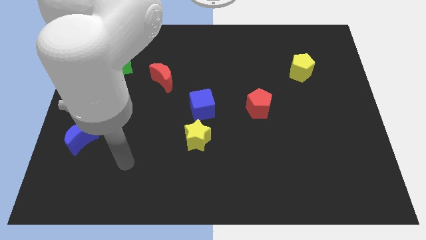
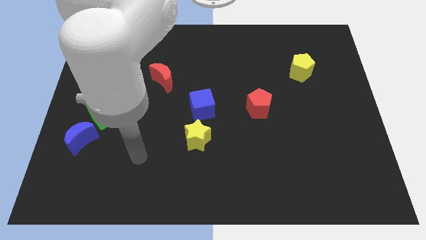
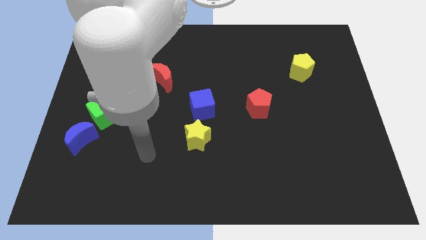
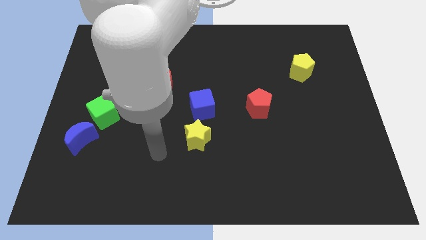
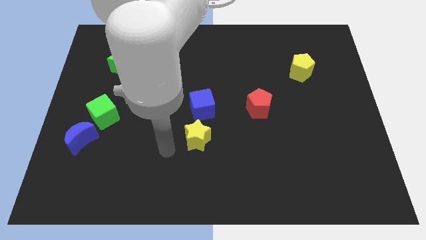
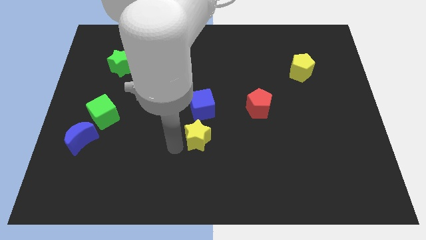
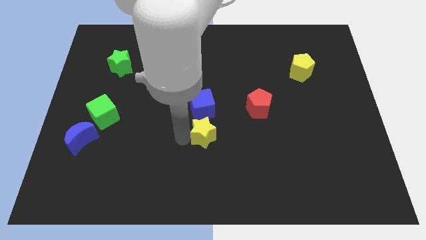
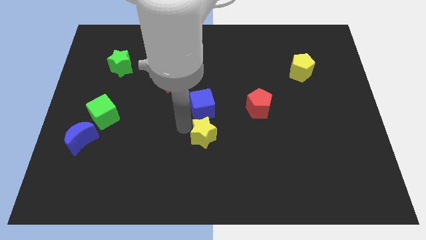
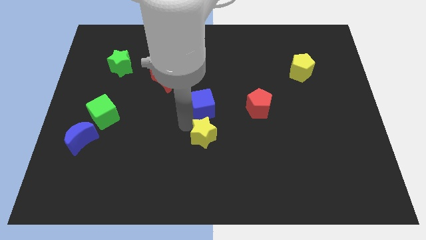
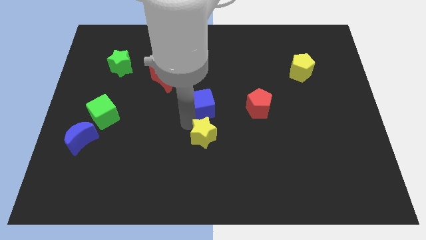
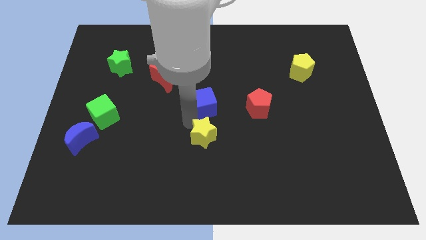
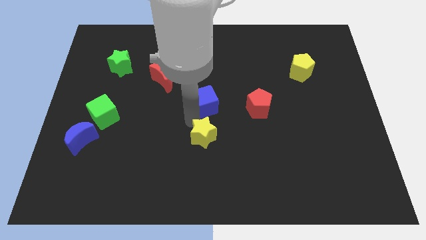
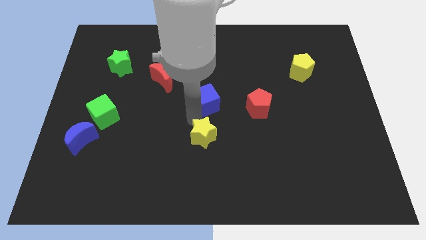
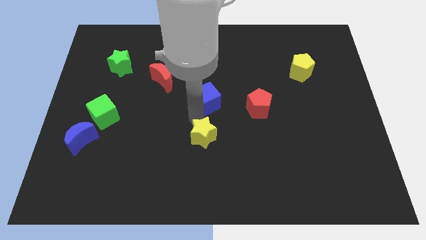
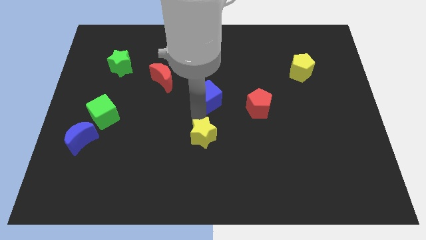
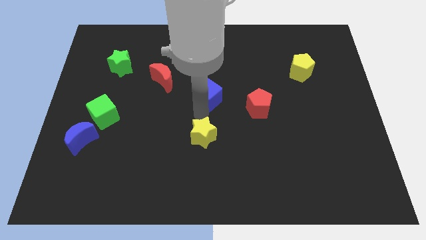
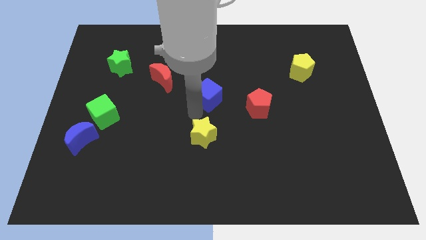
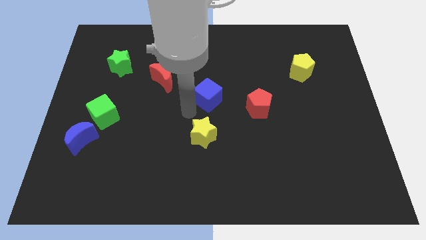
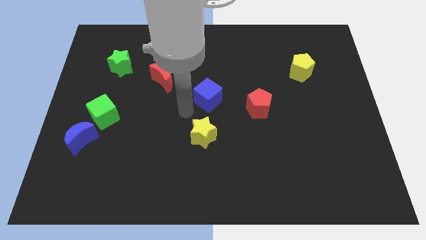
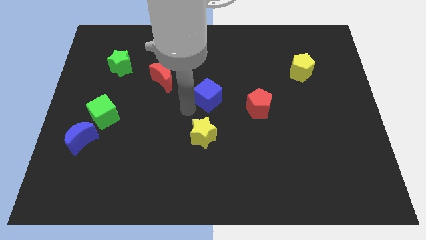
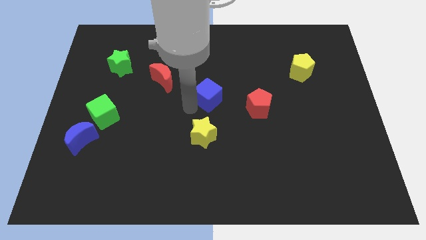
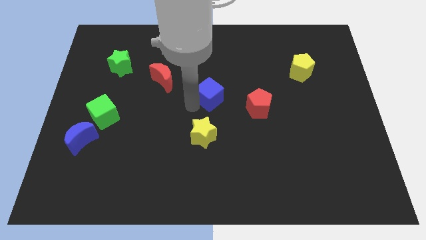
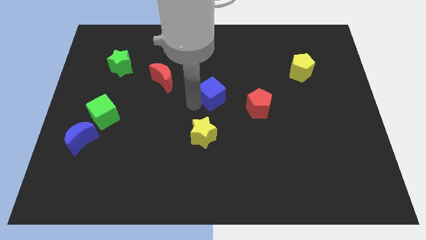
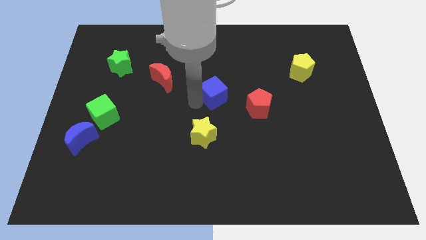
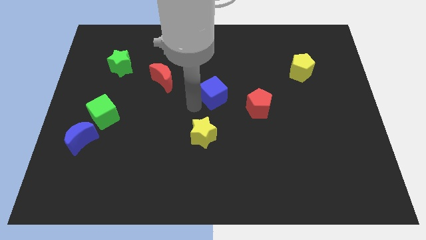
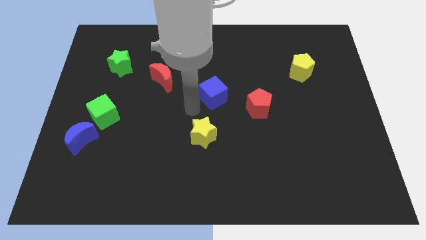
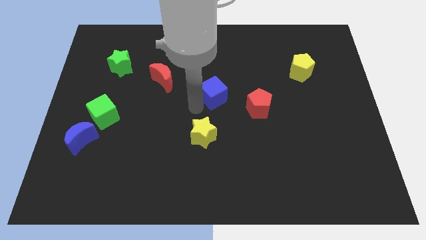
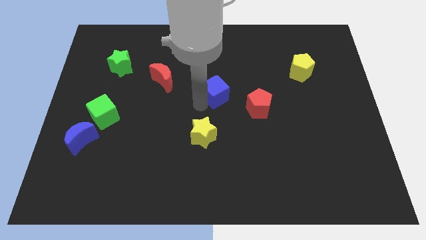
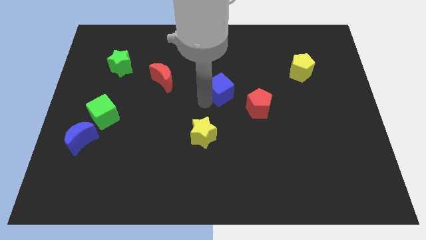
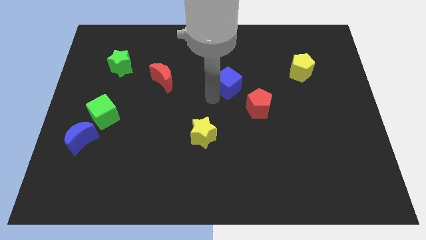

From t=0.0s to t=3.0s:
move the blue cube a little bit upwards and to the right

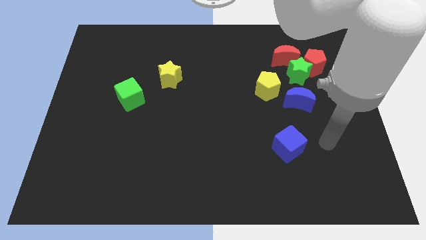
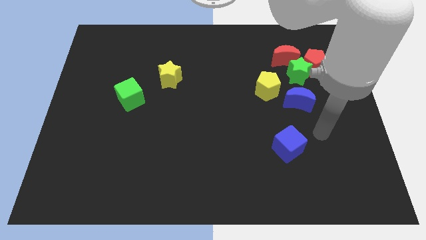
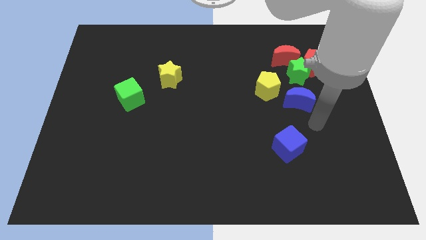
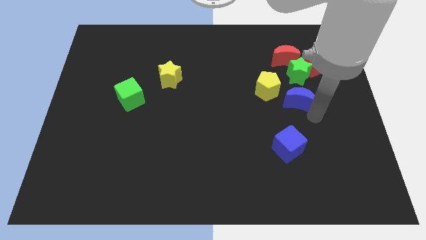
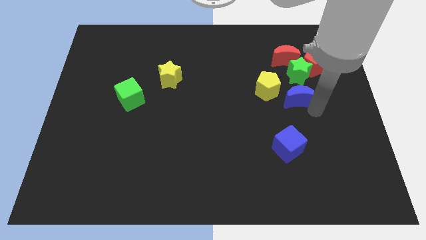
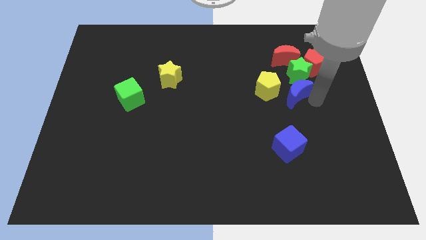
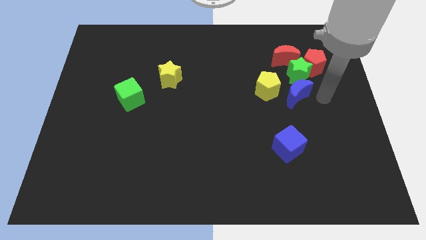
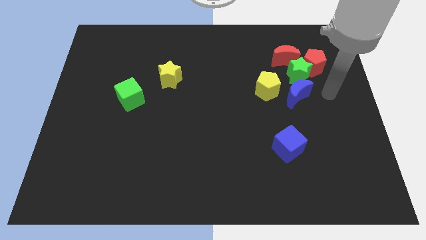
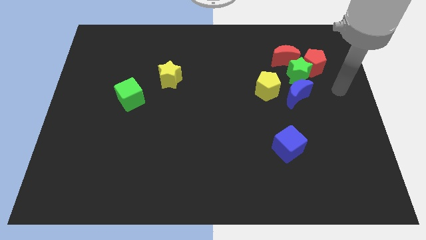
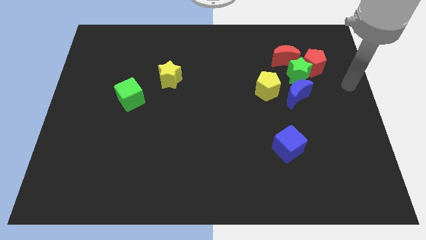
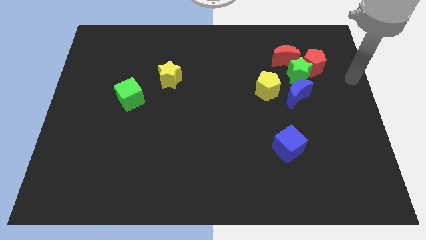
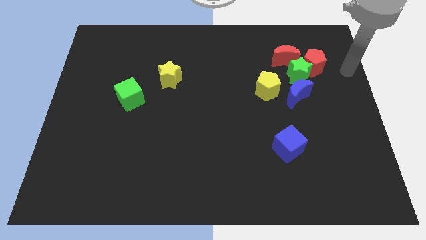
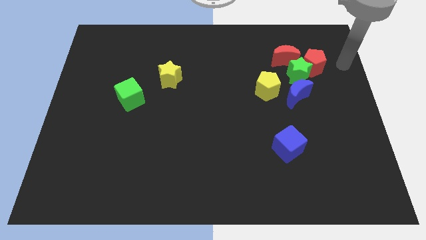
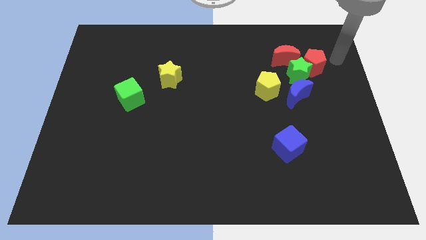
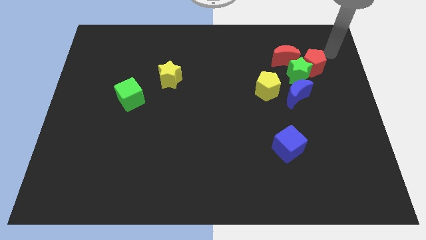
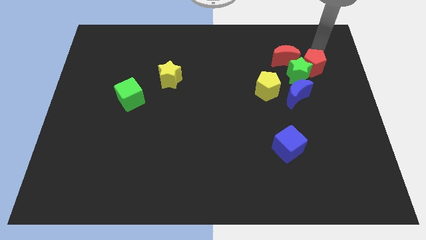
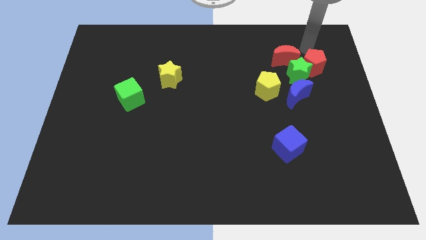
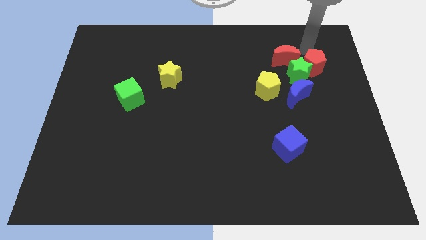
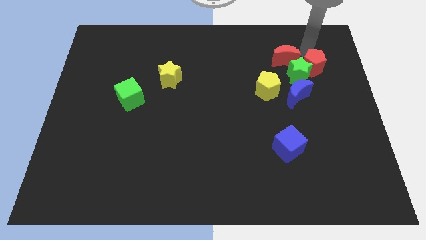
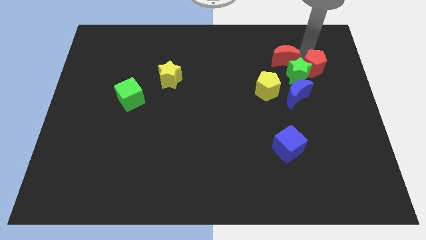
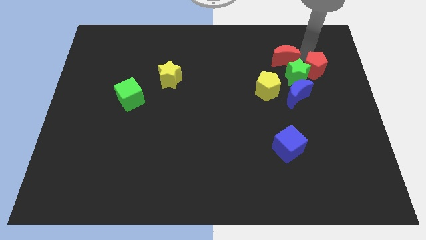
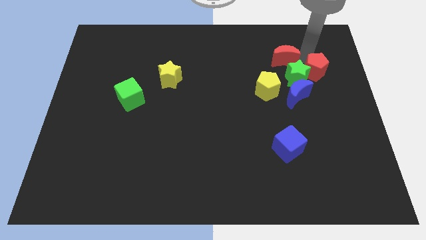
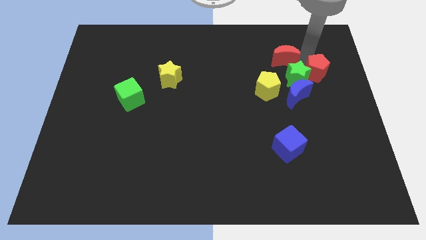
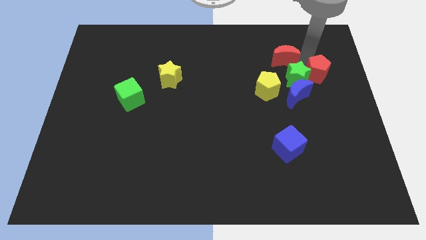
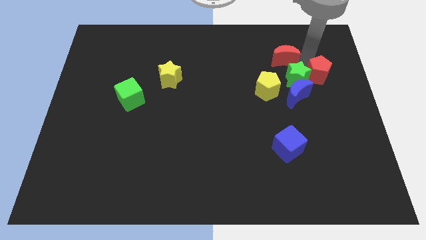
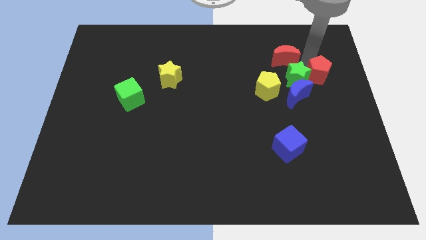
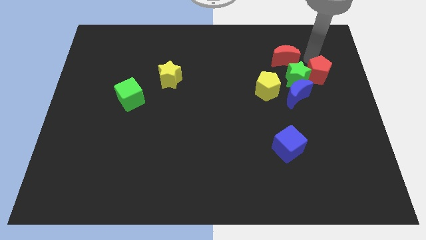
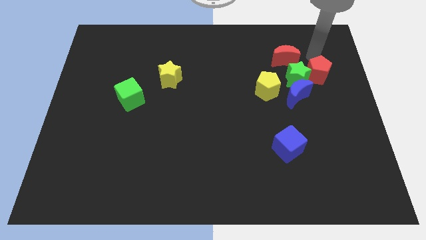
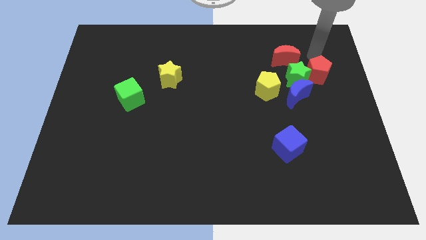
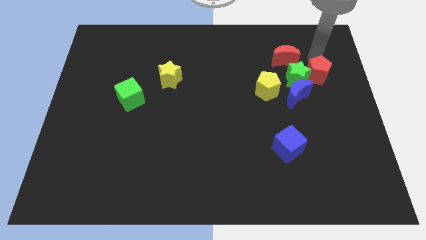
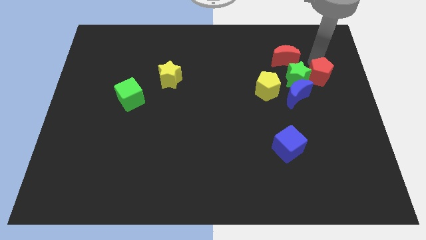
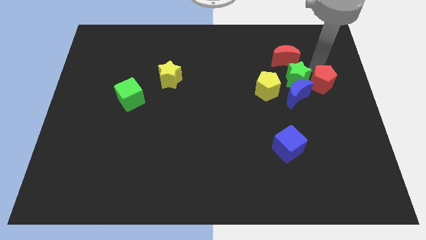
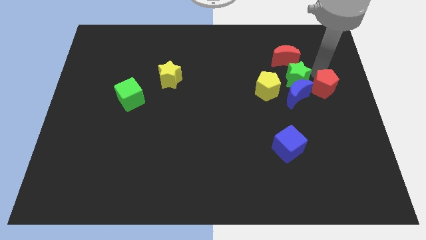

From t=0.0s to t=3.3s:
slightly slide the red pentagon downwards

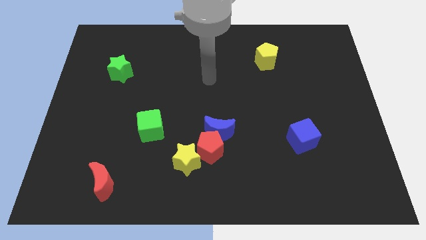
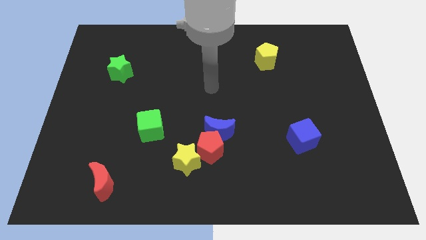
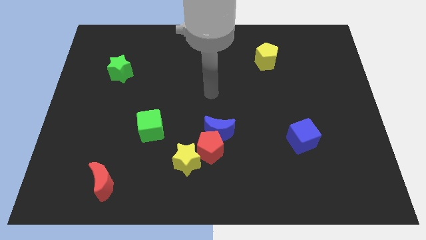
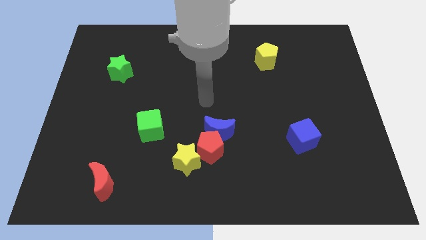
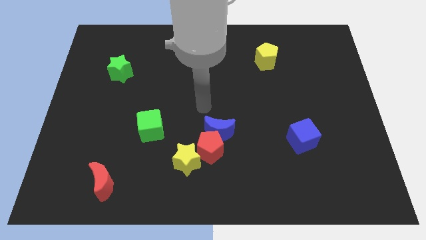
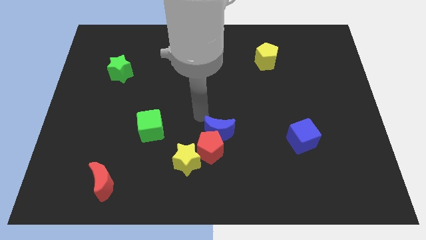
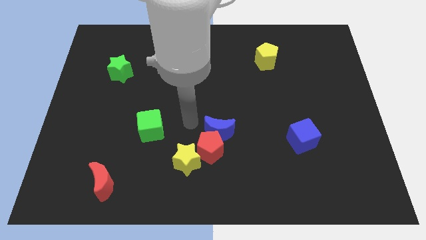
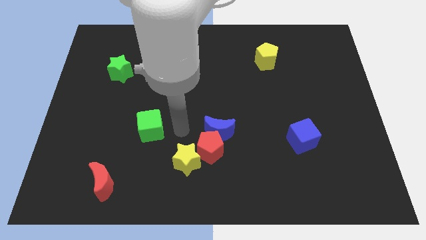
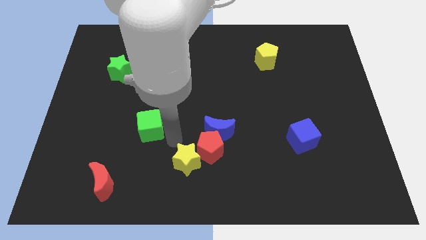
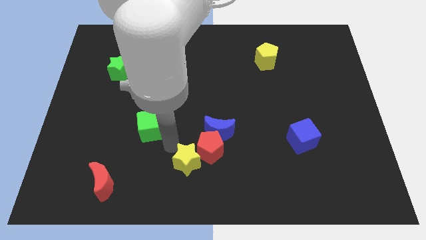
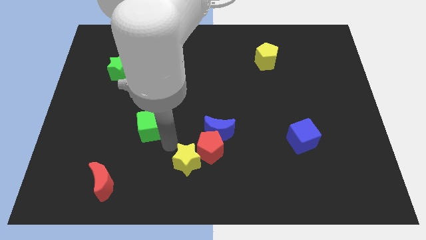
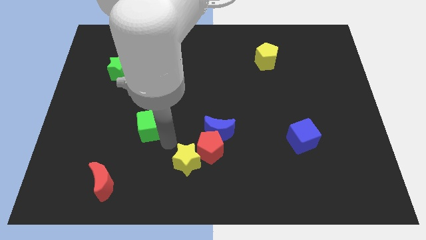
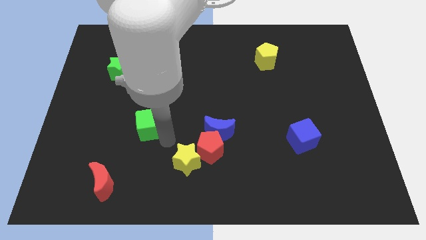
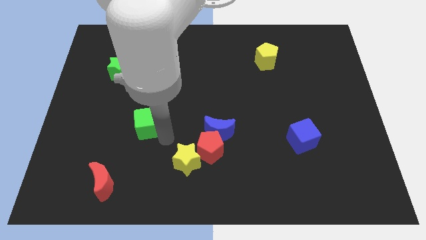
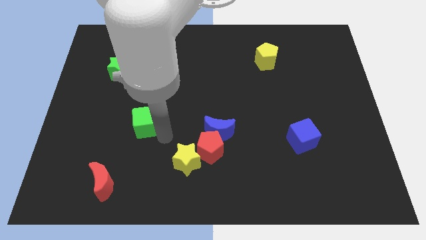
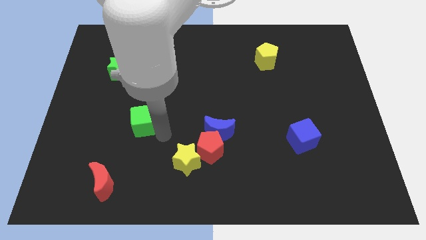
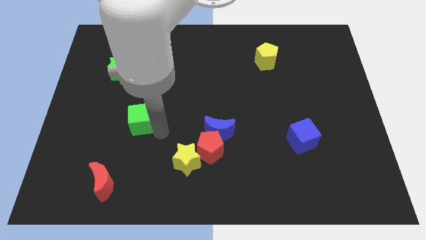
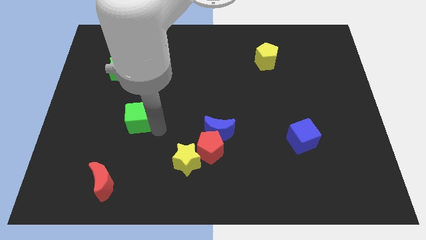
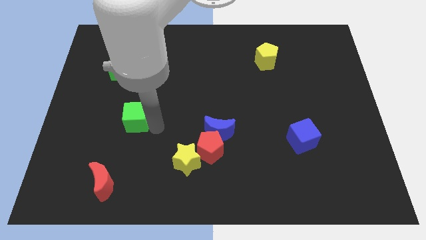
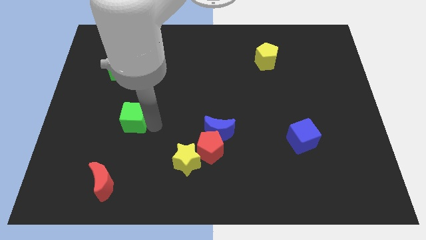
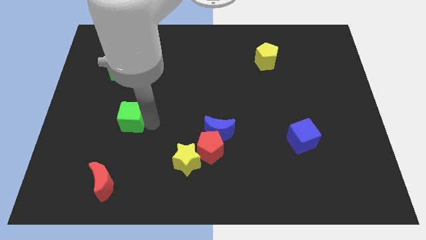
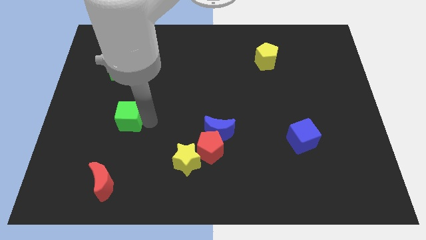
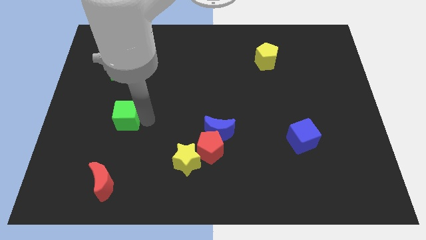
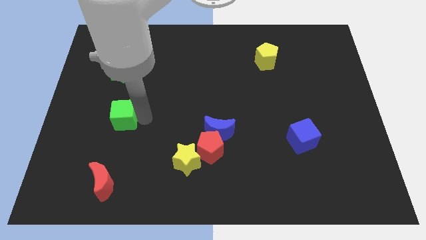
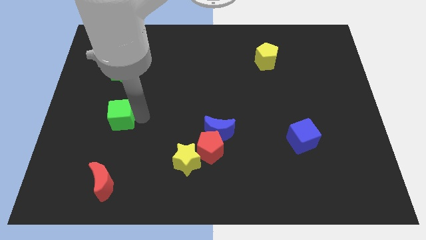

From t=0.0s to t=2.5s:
push the green cube somewhat diagonally up and left
